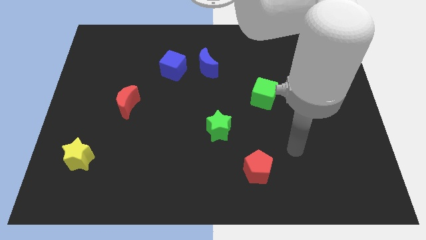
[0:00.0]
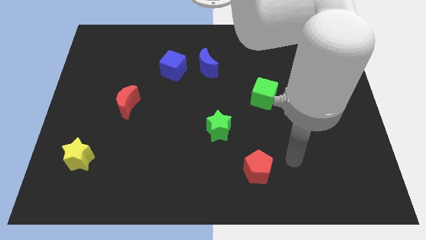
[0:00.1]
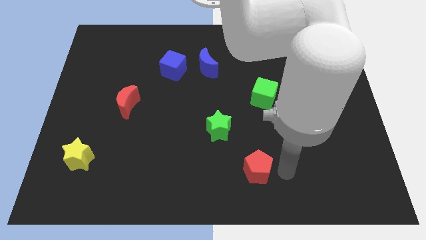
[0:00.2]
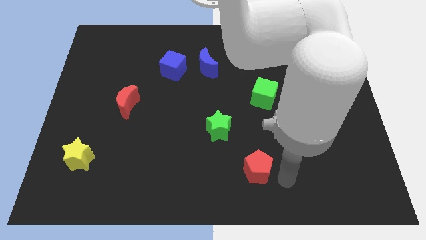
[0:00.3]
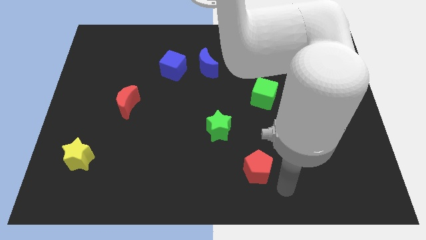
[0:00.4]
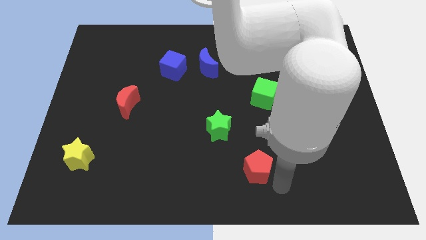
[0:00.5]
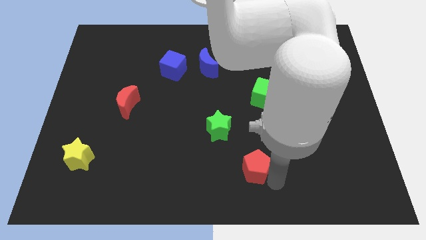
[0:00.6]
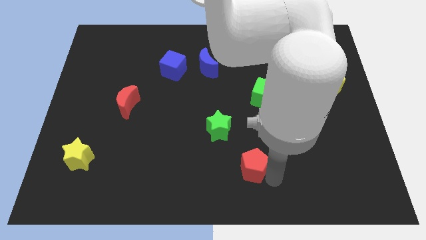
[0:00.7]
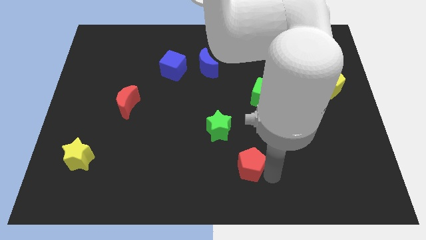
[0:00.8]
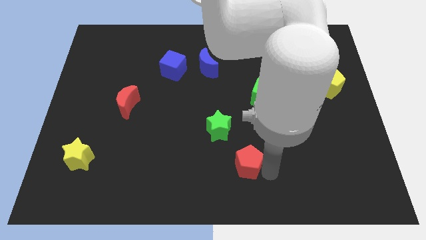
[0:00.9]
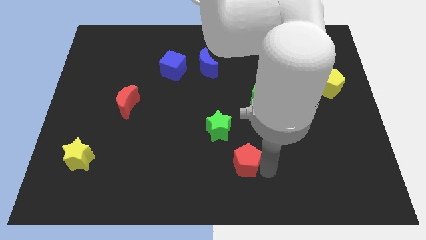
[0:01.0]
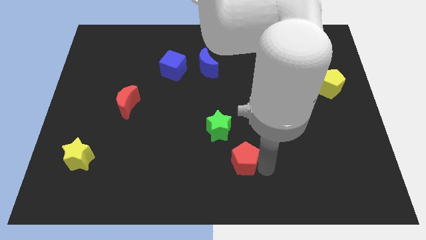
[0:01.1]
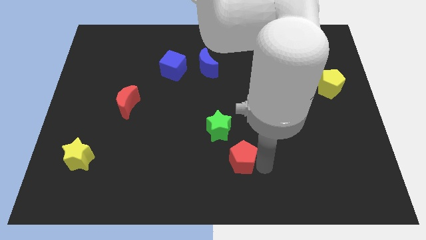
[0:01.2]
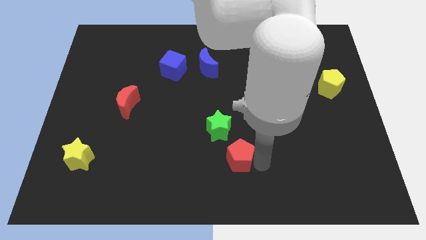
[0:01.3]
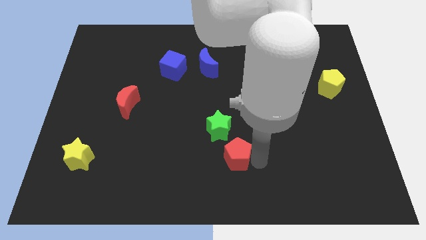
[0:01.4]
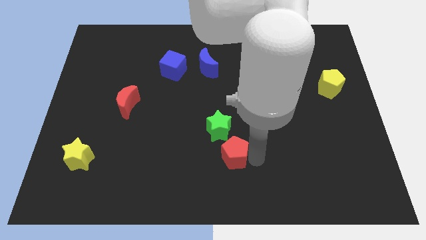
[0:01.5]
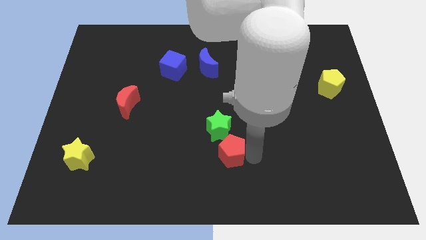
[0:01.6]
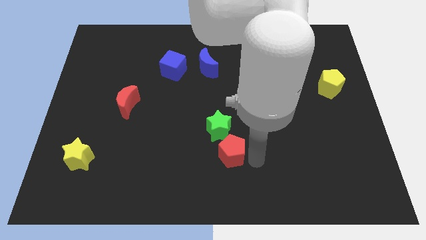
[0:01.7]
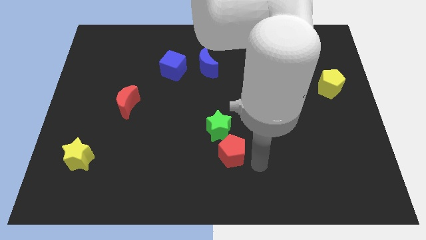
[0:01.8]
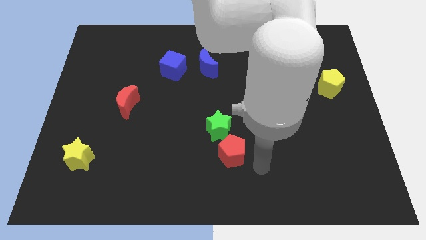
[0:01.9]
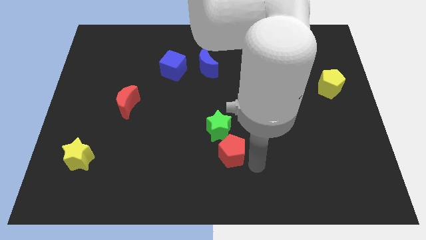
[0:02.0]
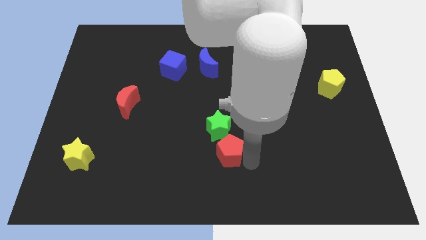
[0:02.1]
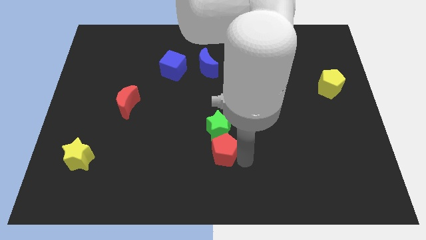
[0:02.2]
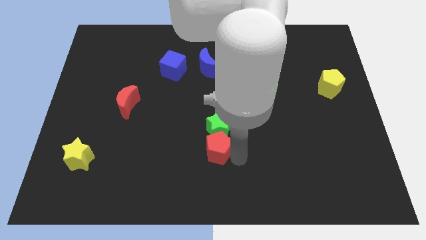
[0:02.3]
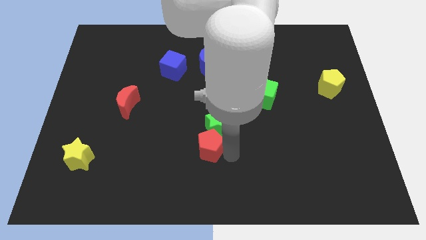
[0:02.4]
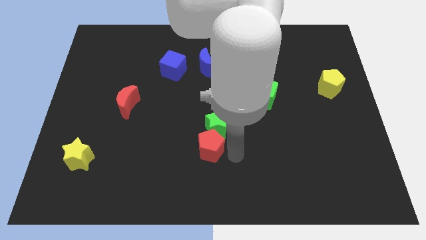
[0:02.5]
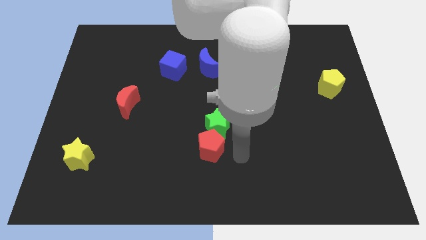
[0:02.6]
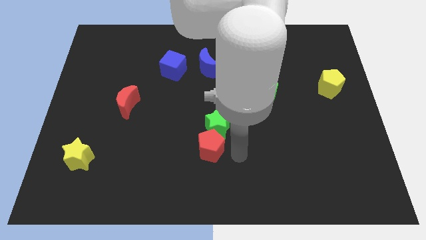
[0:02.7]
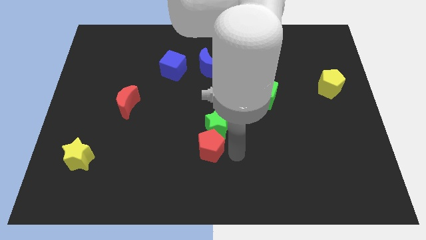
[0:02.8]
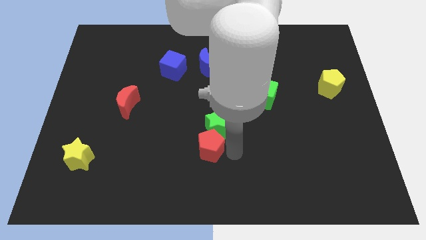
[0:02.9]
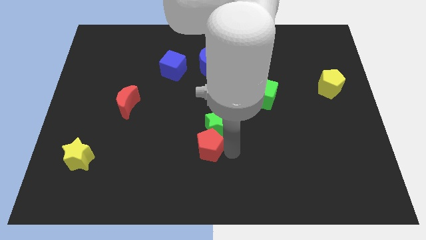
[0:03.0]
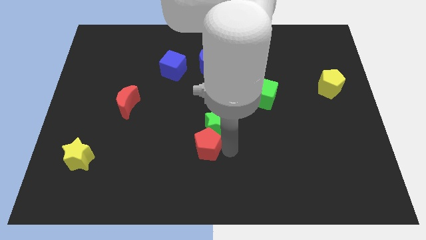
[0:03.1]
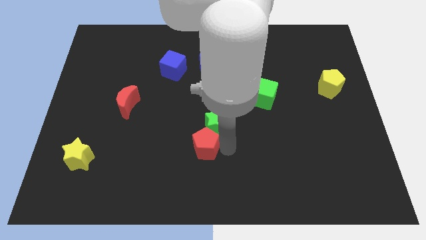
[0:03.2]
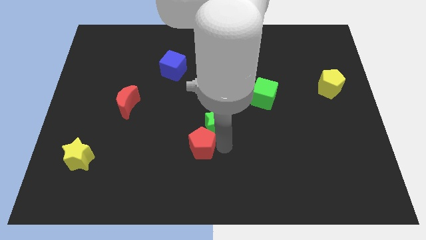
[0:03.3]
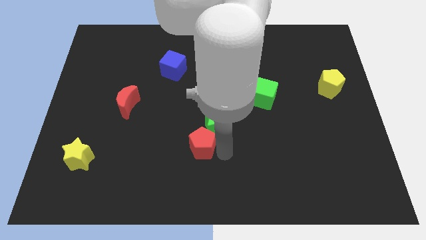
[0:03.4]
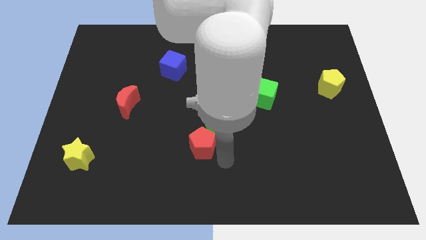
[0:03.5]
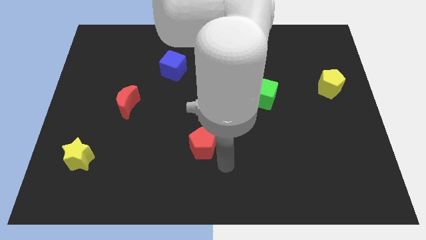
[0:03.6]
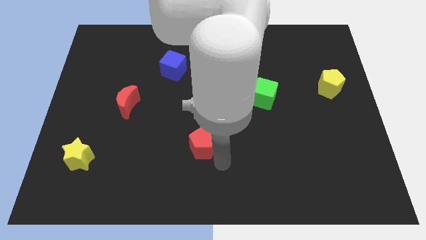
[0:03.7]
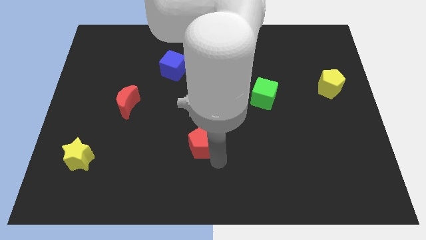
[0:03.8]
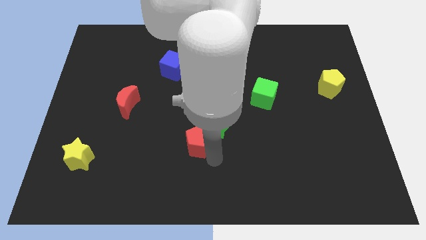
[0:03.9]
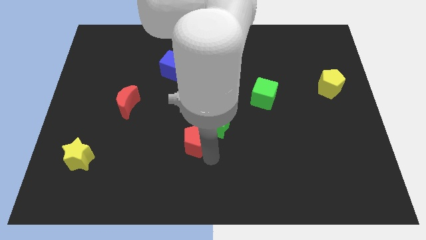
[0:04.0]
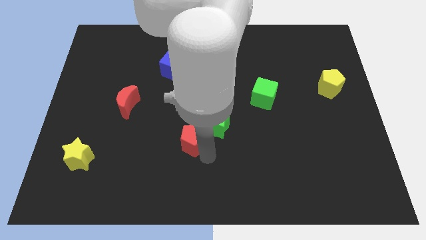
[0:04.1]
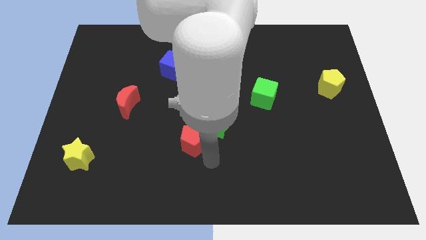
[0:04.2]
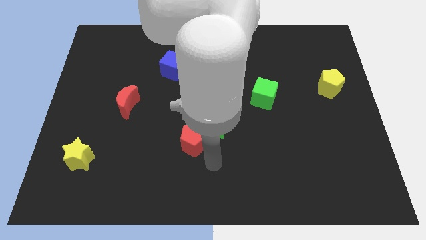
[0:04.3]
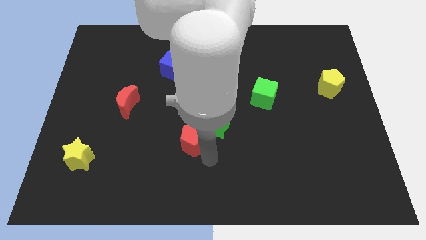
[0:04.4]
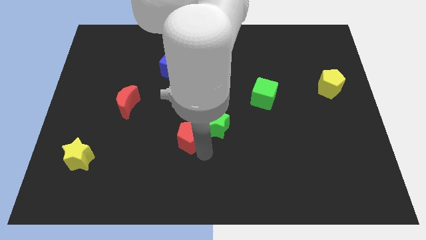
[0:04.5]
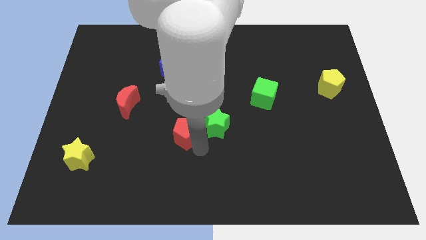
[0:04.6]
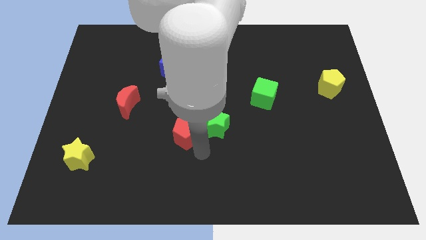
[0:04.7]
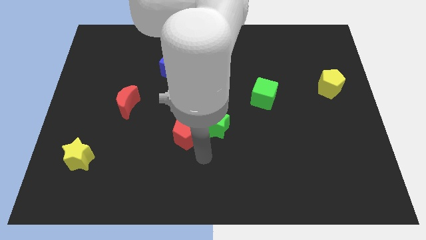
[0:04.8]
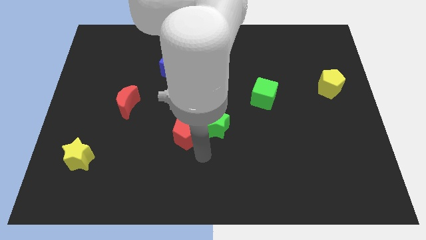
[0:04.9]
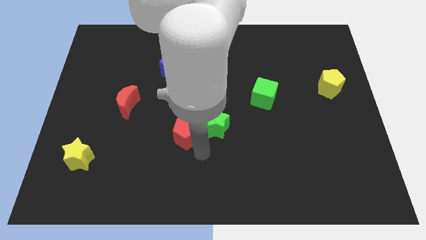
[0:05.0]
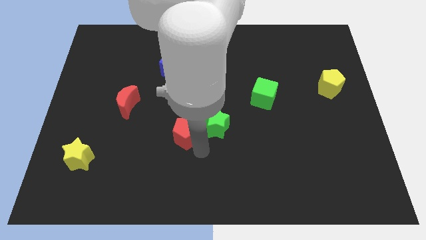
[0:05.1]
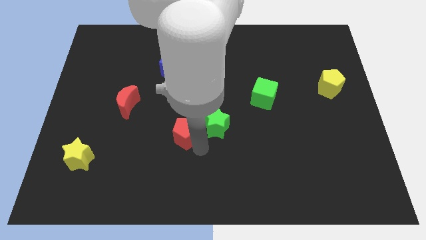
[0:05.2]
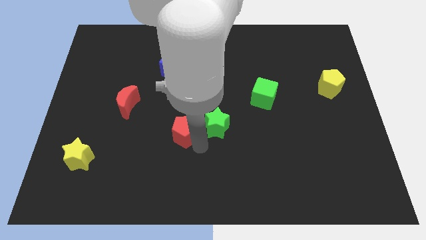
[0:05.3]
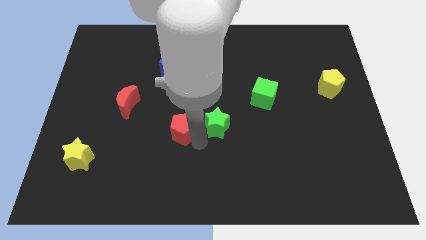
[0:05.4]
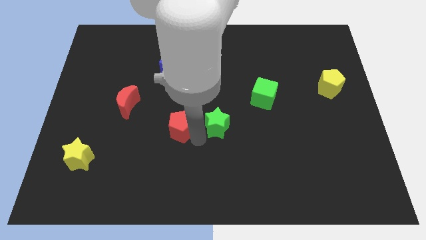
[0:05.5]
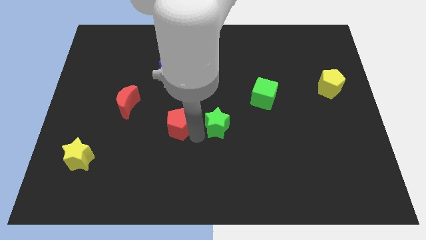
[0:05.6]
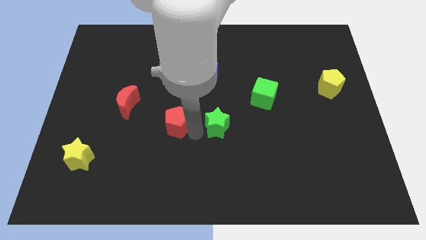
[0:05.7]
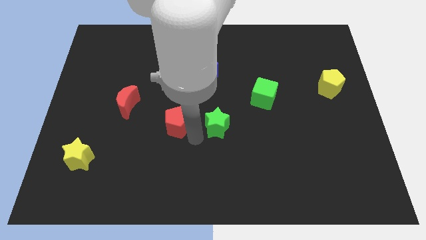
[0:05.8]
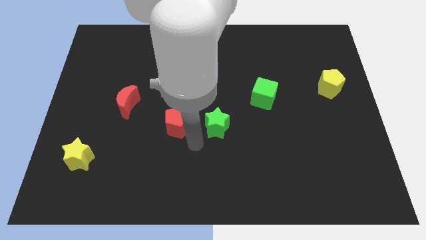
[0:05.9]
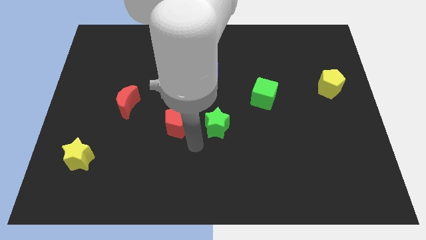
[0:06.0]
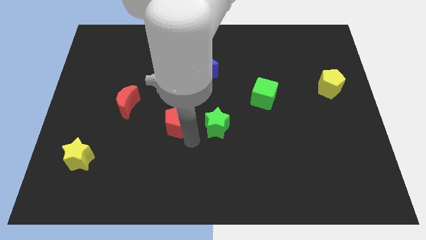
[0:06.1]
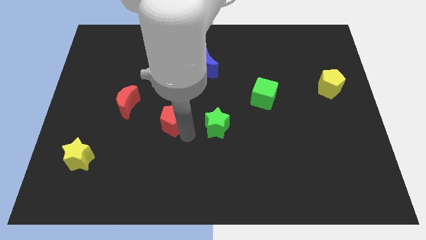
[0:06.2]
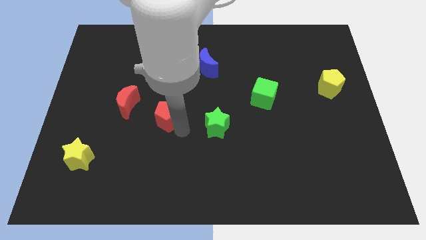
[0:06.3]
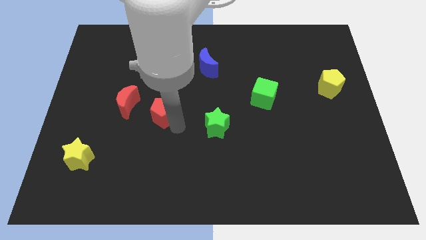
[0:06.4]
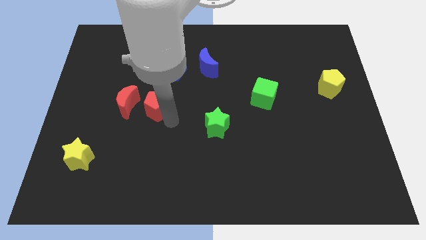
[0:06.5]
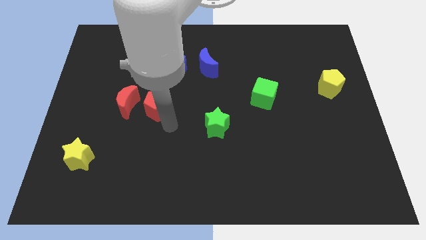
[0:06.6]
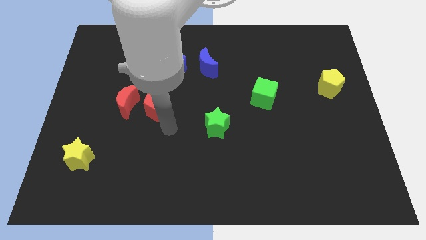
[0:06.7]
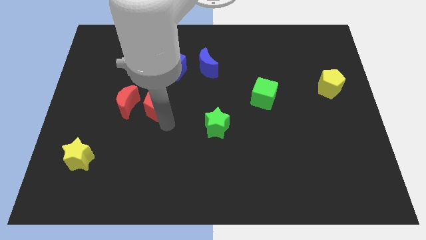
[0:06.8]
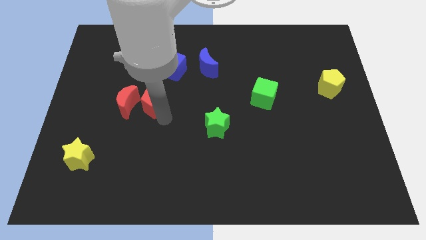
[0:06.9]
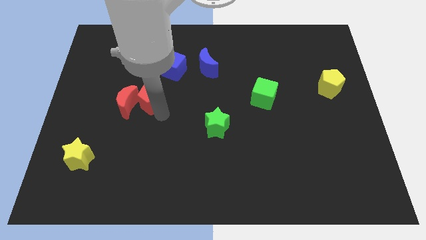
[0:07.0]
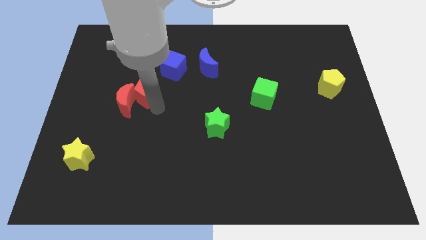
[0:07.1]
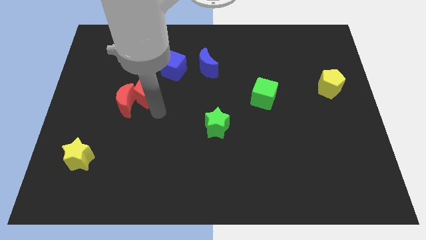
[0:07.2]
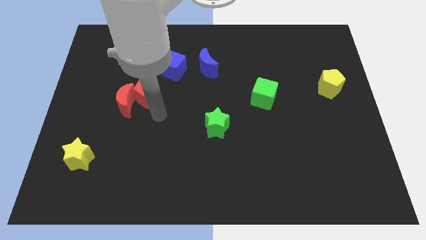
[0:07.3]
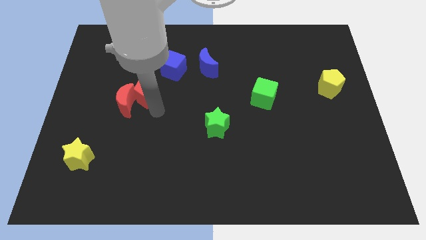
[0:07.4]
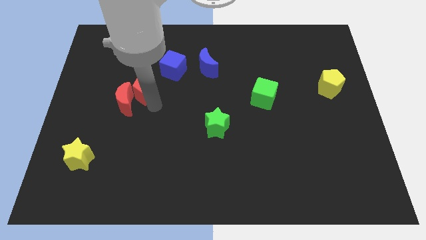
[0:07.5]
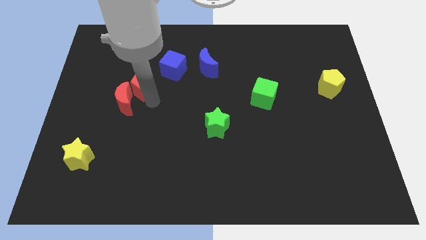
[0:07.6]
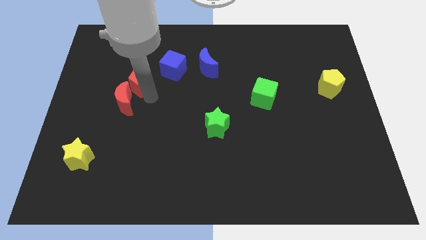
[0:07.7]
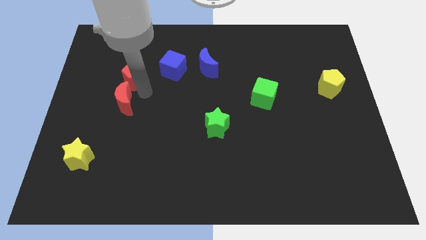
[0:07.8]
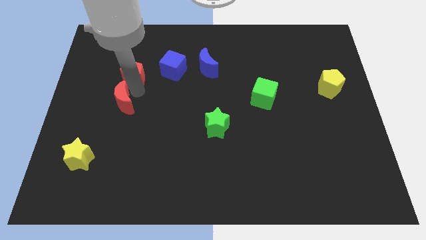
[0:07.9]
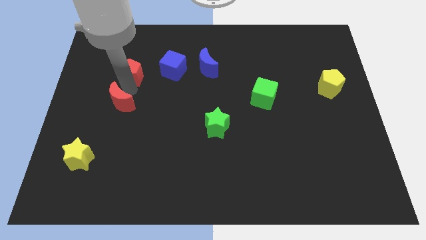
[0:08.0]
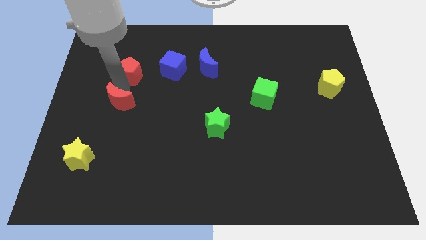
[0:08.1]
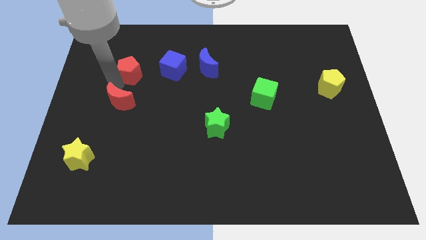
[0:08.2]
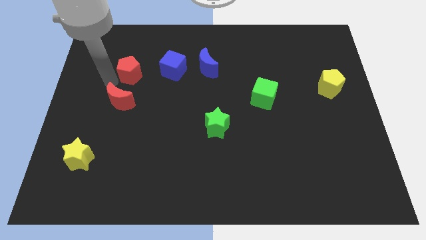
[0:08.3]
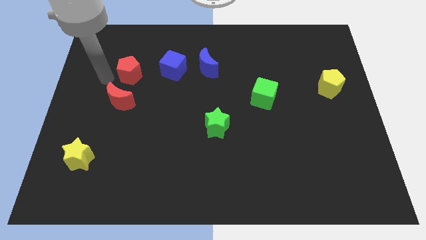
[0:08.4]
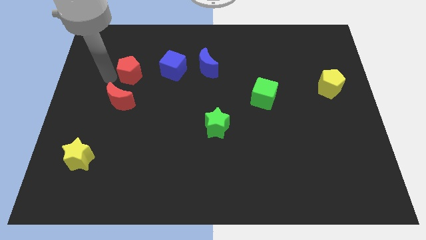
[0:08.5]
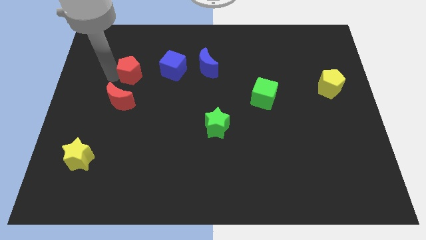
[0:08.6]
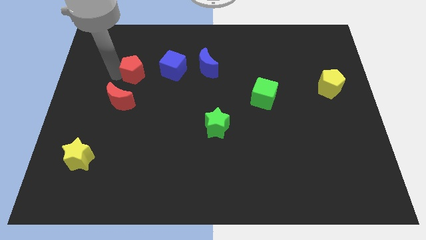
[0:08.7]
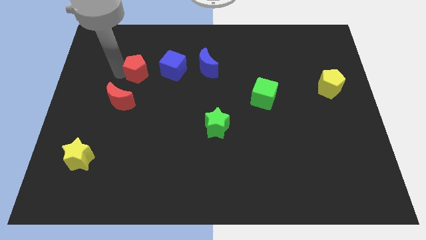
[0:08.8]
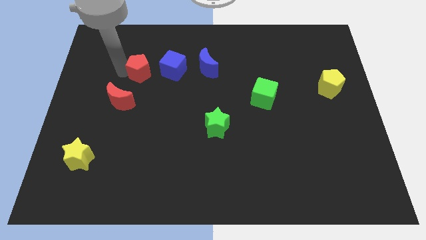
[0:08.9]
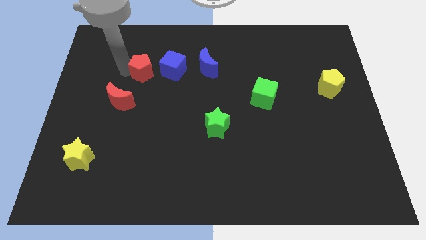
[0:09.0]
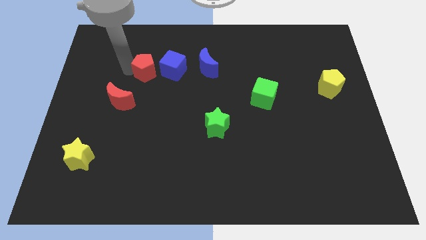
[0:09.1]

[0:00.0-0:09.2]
put the red pentagon just left of the blue moon
